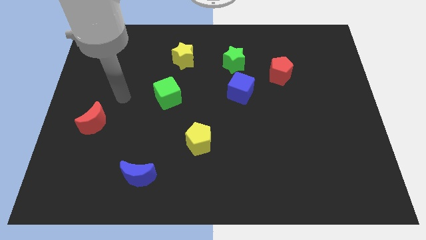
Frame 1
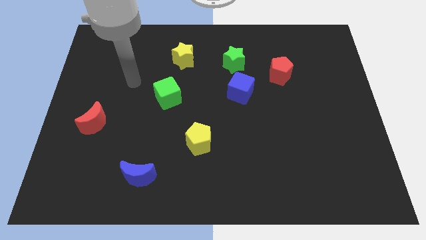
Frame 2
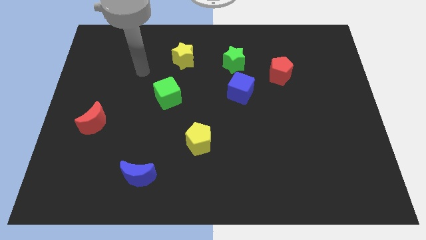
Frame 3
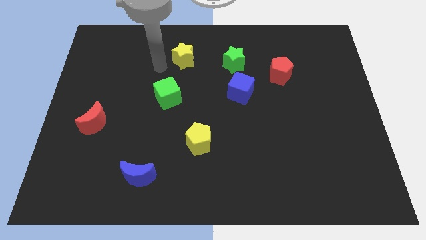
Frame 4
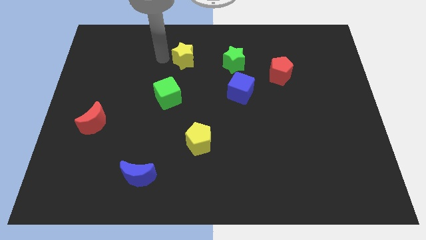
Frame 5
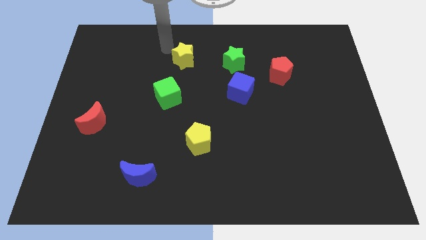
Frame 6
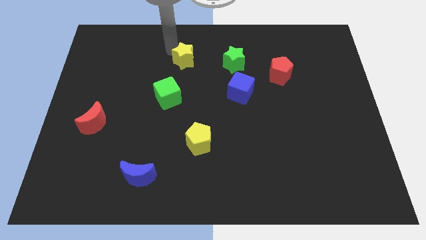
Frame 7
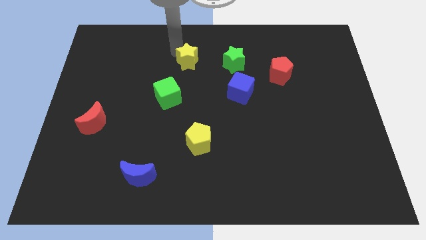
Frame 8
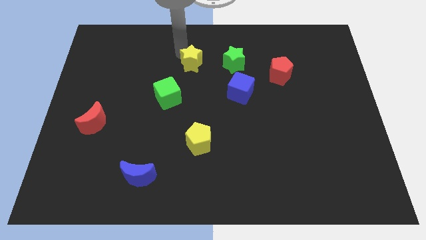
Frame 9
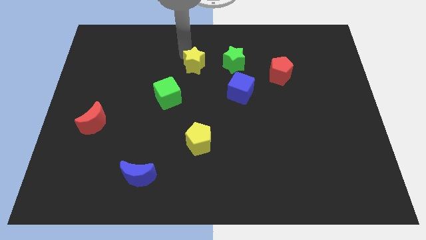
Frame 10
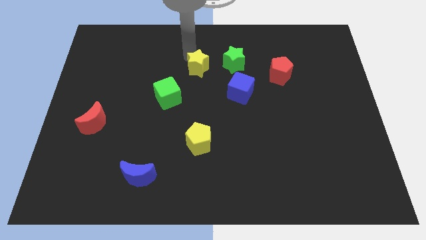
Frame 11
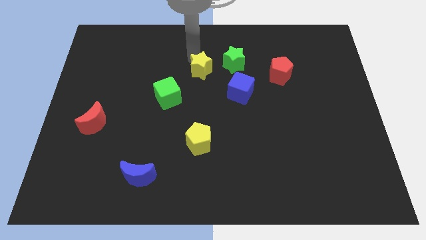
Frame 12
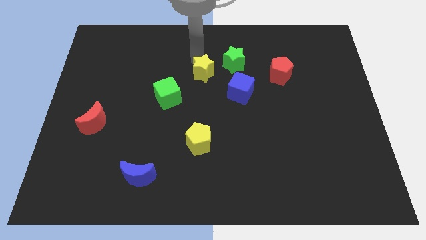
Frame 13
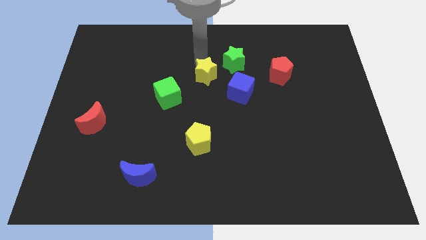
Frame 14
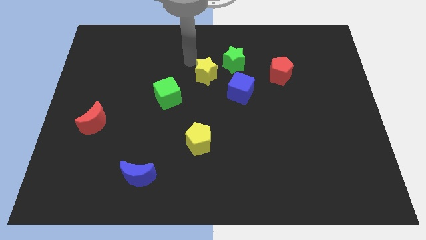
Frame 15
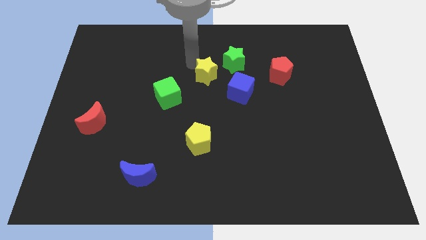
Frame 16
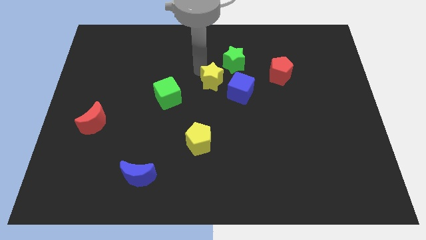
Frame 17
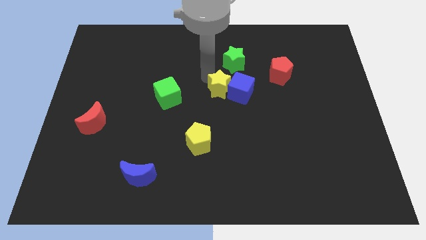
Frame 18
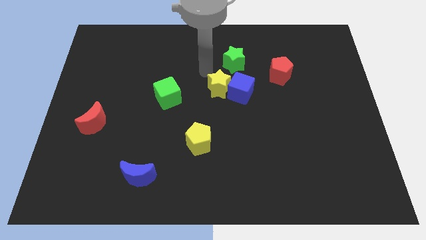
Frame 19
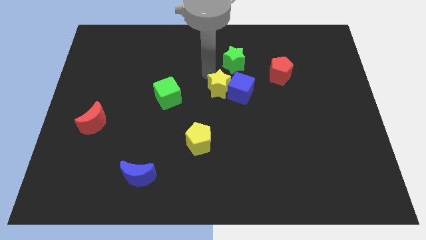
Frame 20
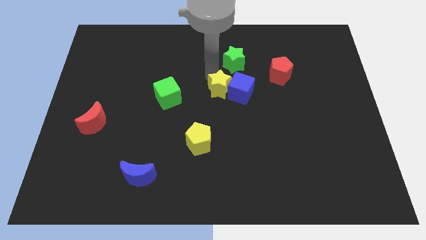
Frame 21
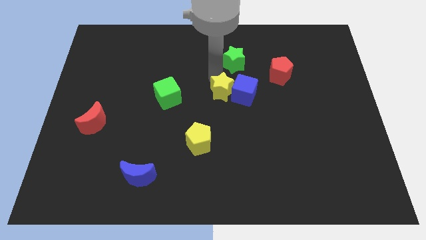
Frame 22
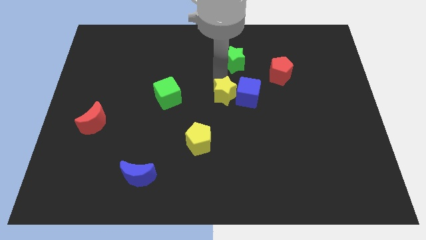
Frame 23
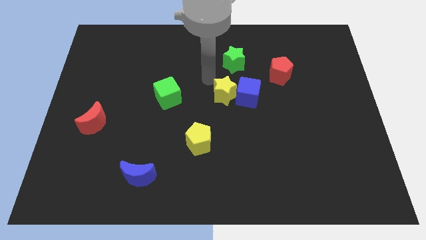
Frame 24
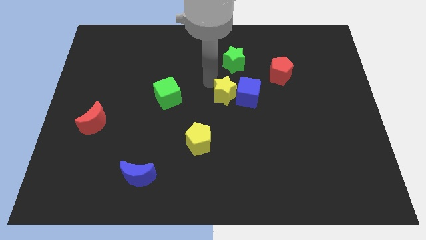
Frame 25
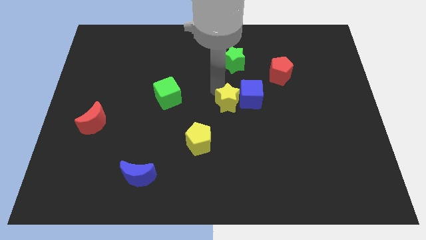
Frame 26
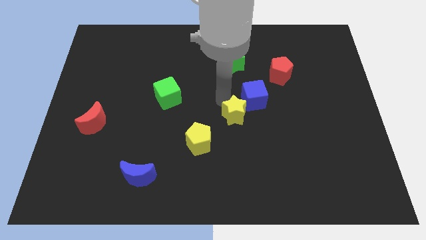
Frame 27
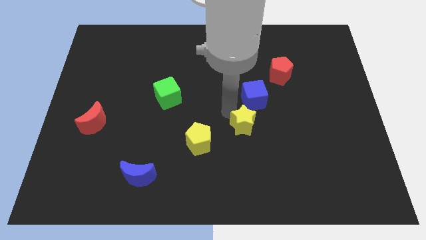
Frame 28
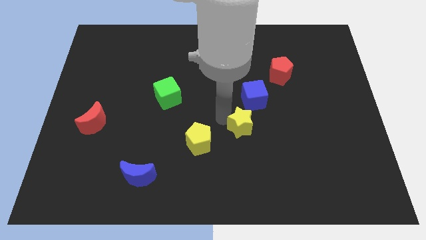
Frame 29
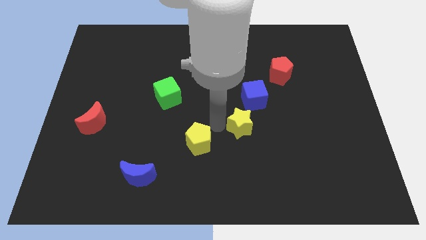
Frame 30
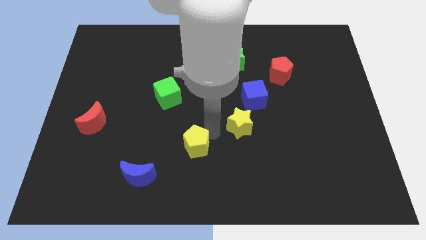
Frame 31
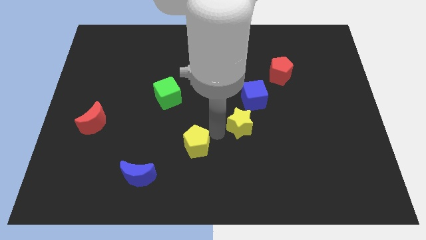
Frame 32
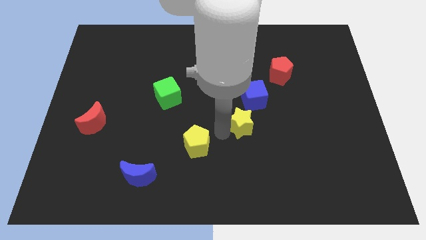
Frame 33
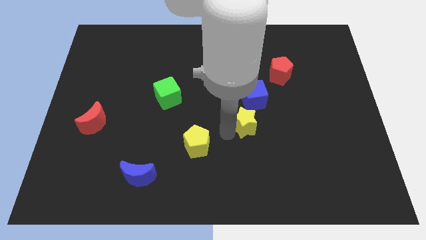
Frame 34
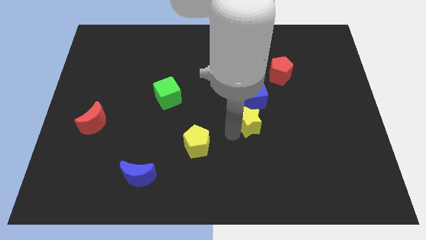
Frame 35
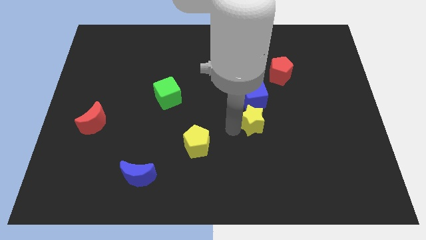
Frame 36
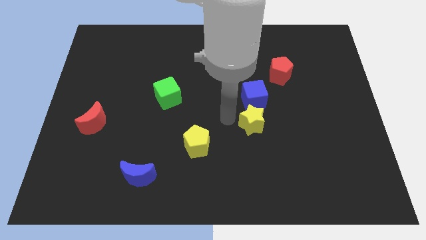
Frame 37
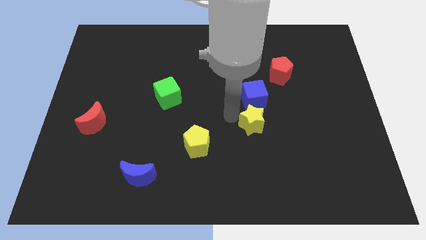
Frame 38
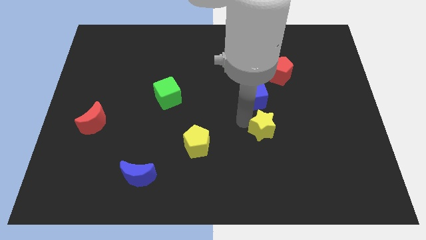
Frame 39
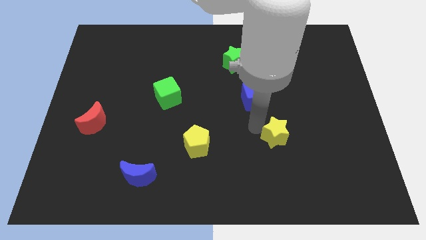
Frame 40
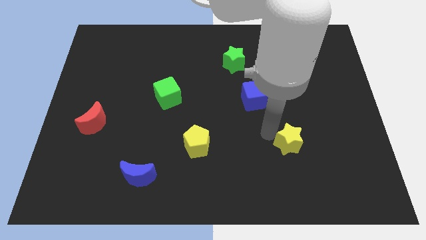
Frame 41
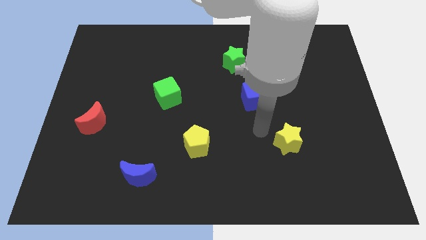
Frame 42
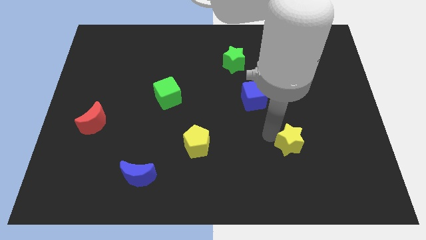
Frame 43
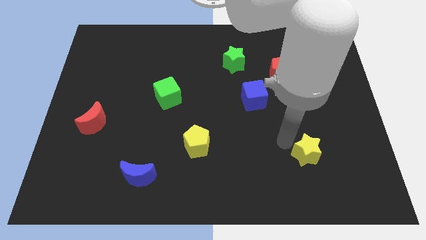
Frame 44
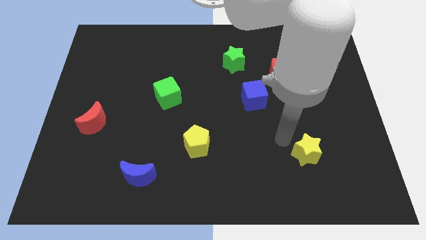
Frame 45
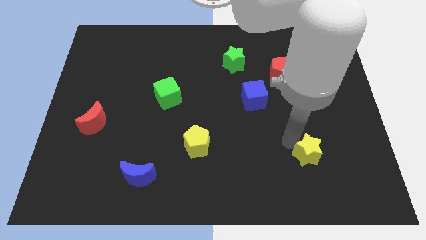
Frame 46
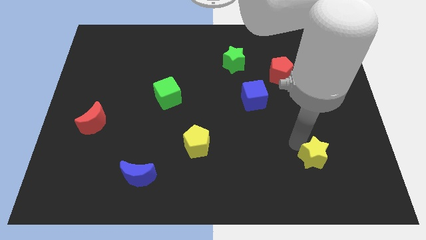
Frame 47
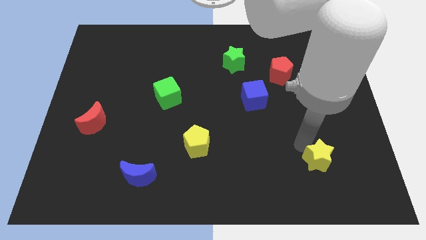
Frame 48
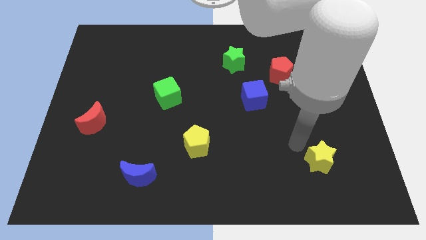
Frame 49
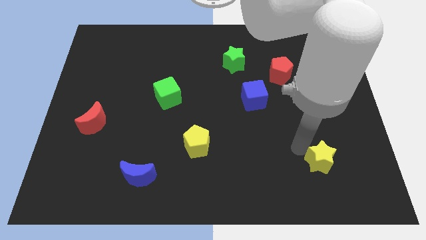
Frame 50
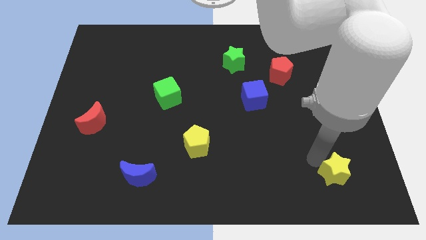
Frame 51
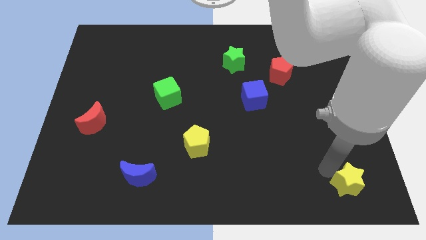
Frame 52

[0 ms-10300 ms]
slide the yellow star to the lower right corner

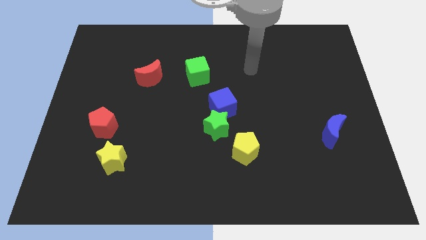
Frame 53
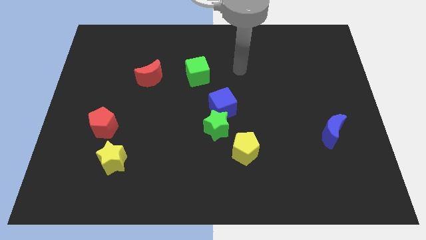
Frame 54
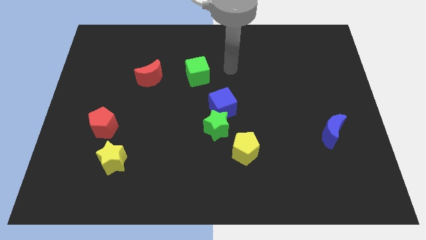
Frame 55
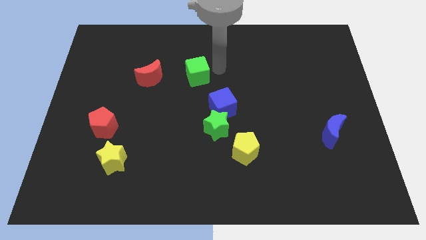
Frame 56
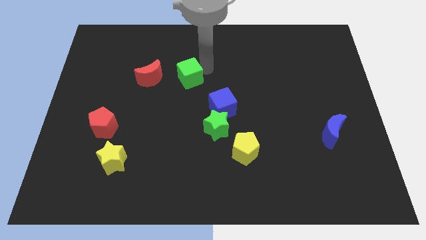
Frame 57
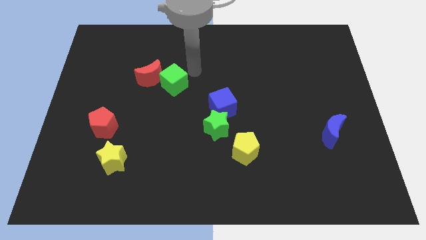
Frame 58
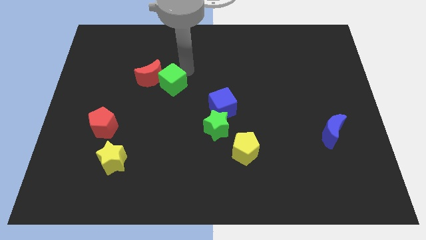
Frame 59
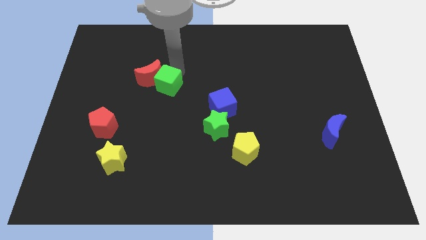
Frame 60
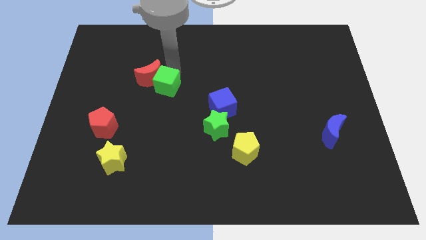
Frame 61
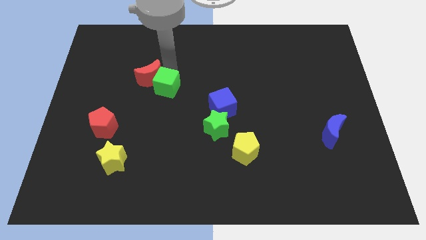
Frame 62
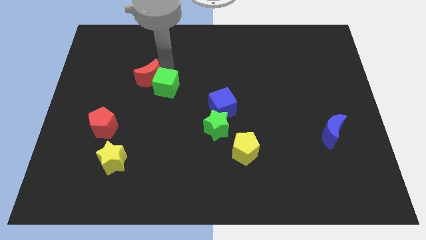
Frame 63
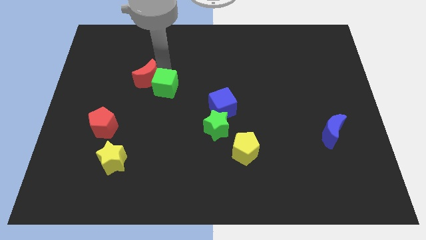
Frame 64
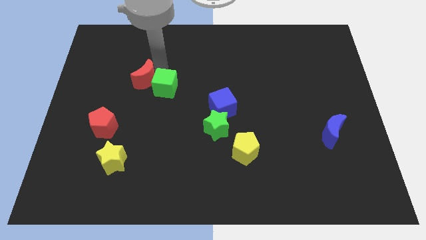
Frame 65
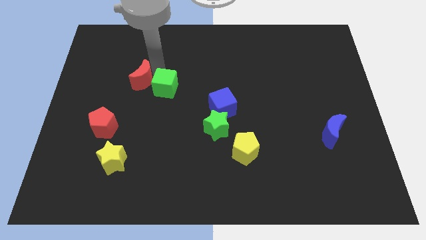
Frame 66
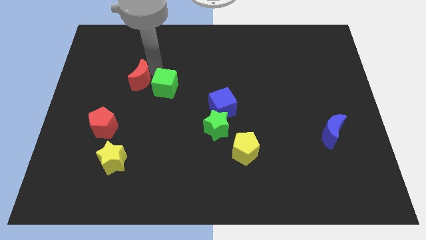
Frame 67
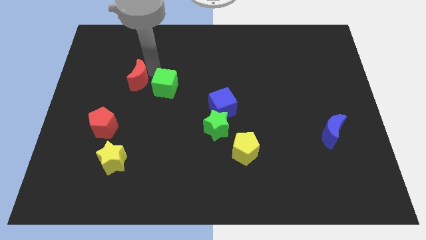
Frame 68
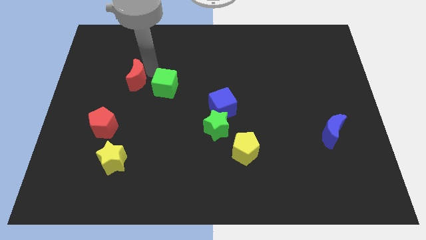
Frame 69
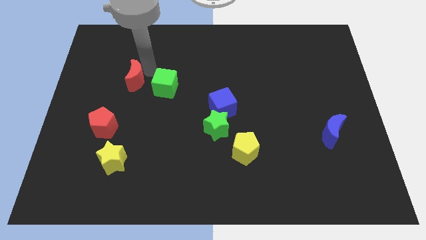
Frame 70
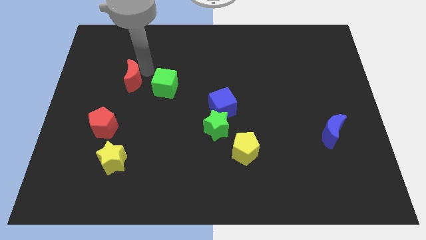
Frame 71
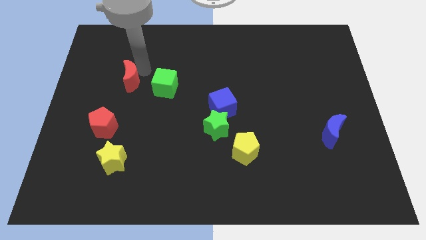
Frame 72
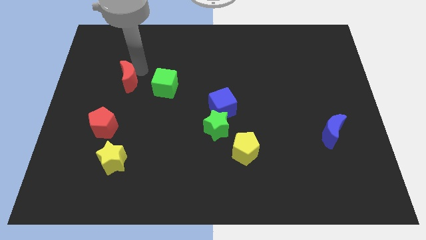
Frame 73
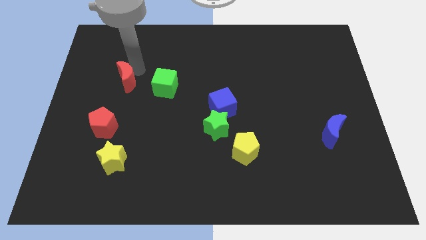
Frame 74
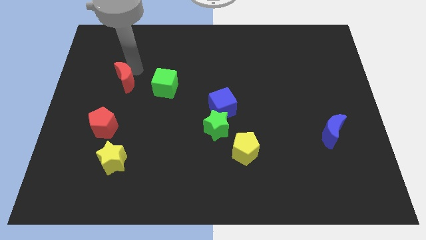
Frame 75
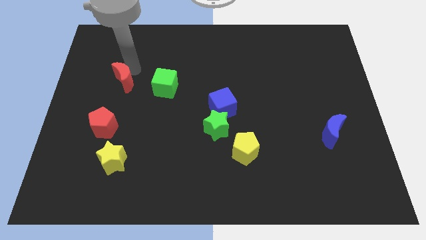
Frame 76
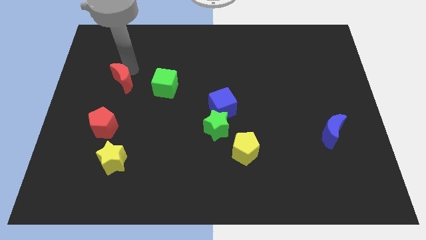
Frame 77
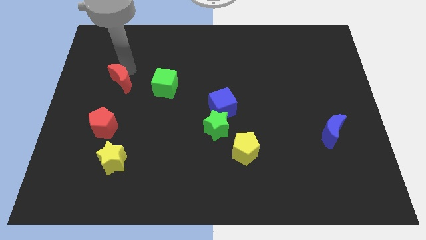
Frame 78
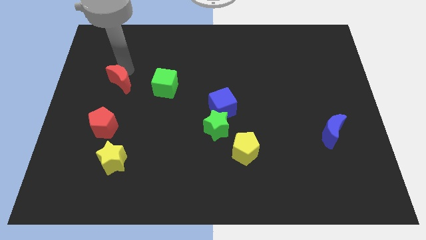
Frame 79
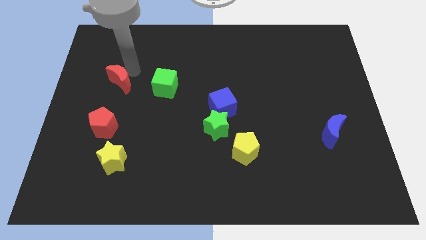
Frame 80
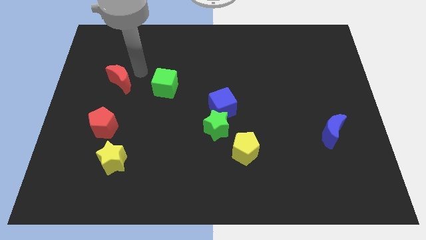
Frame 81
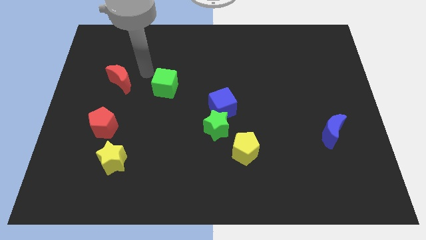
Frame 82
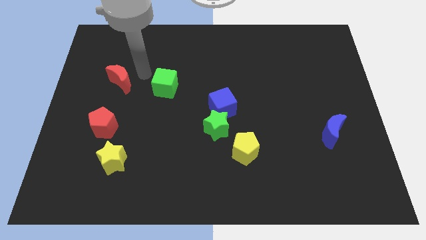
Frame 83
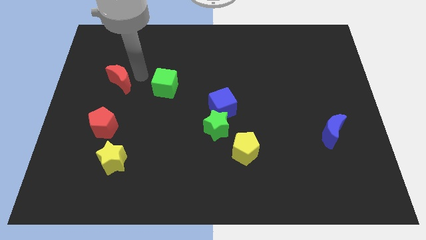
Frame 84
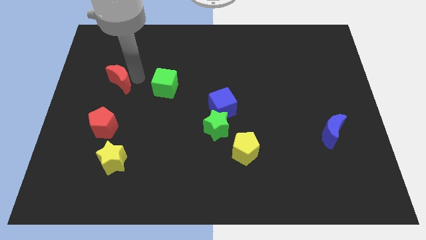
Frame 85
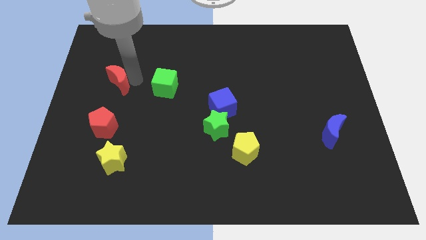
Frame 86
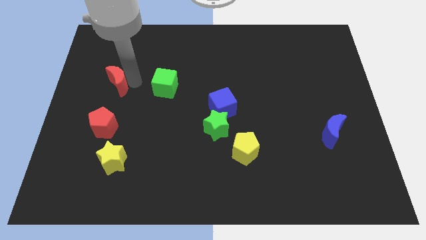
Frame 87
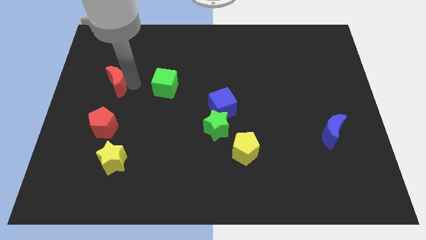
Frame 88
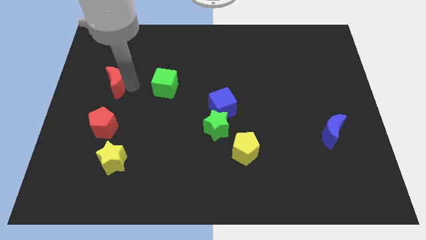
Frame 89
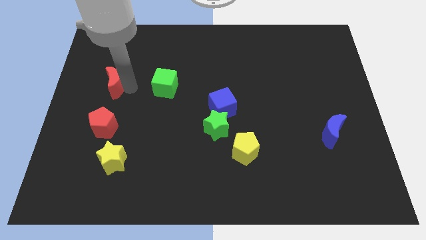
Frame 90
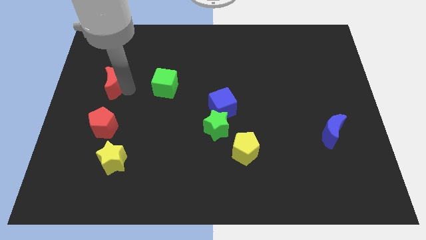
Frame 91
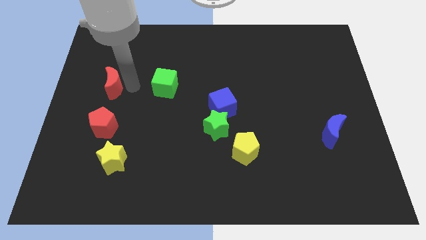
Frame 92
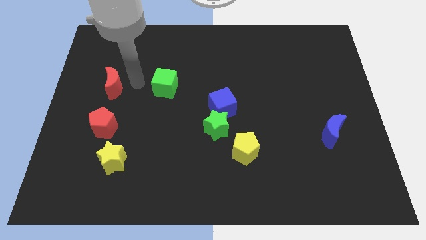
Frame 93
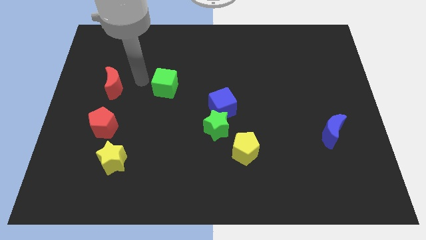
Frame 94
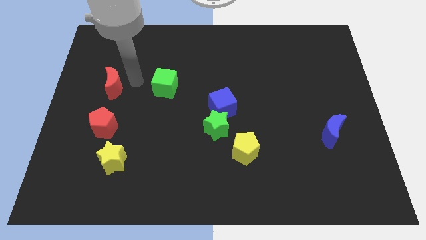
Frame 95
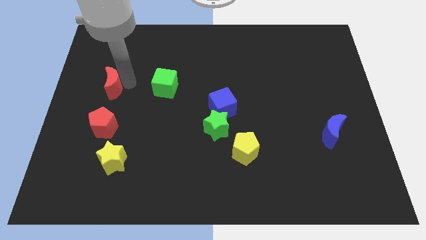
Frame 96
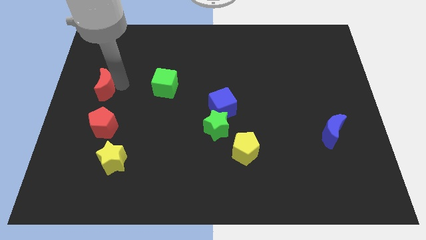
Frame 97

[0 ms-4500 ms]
push the red moon to the left side
